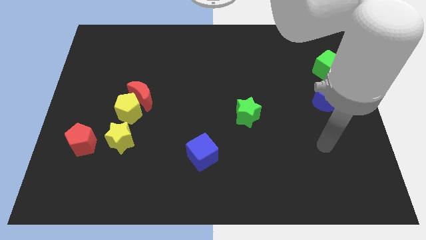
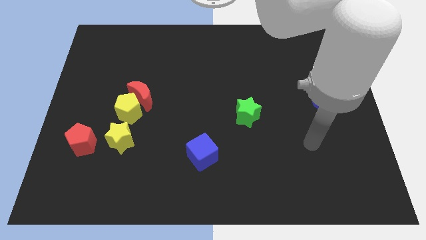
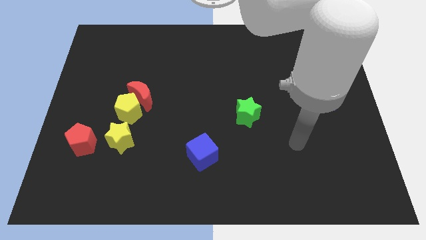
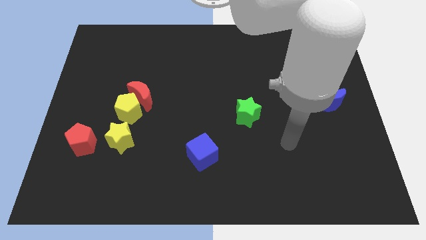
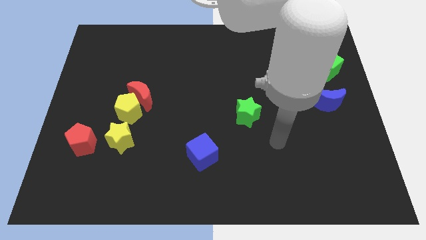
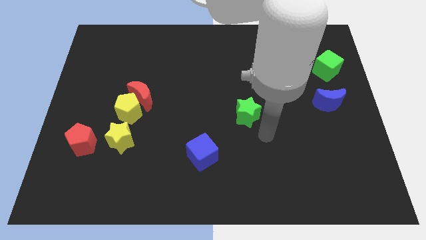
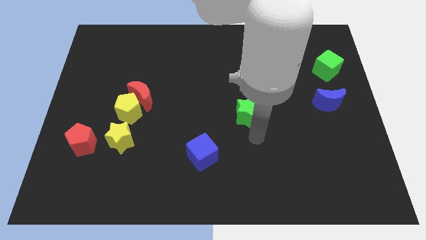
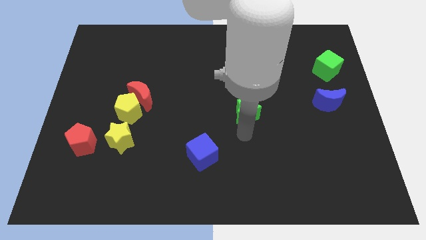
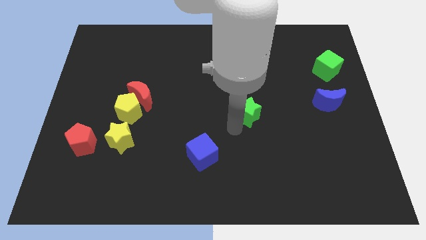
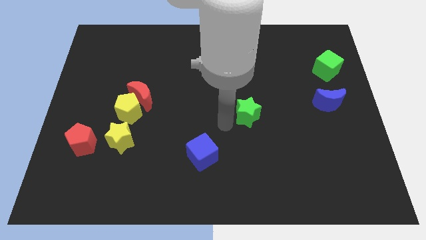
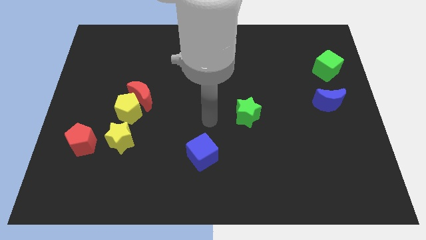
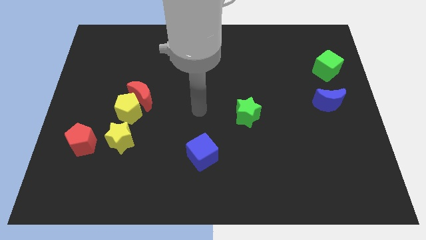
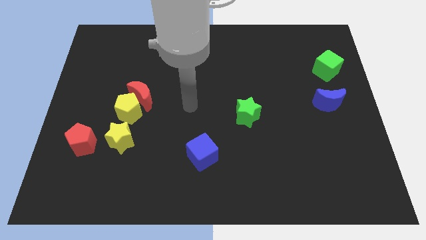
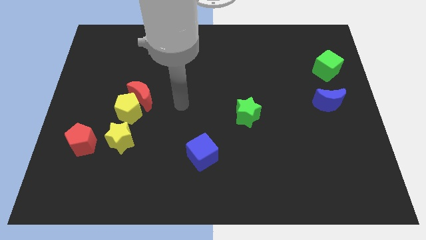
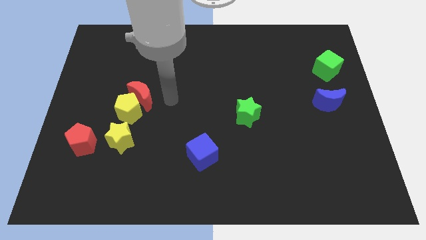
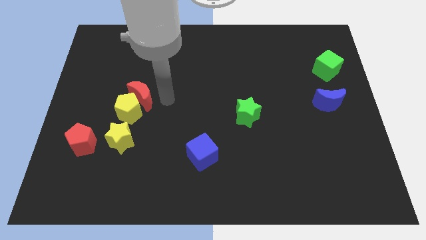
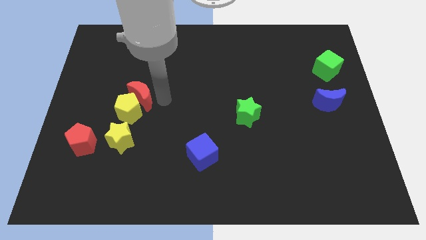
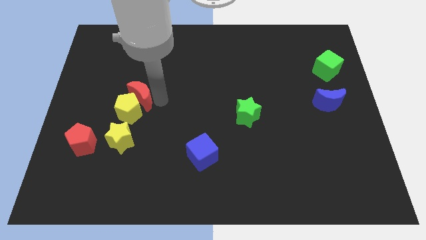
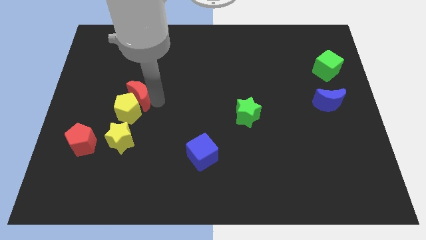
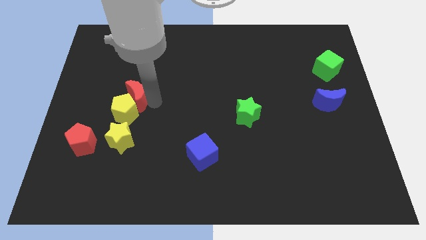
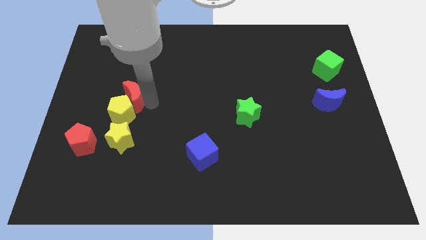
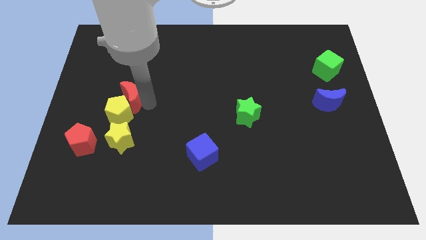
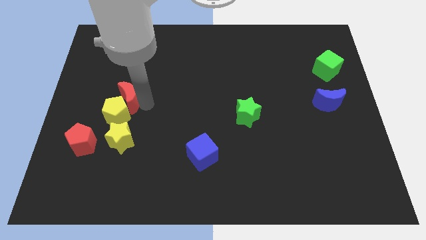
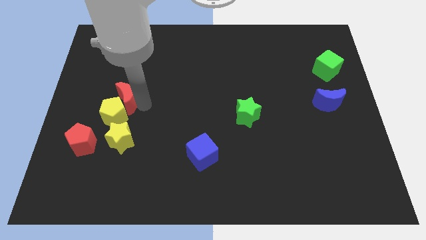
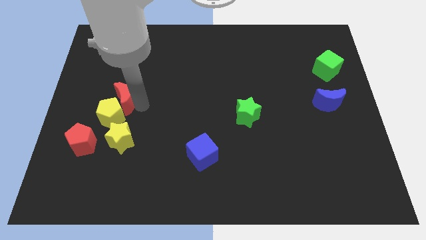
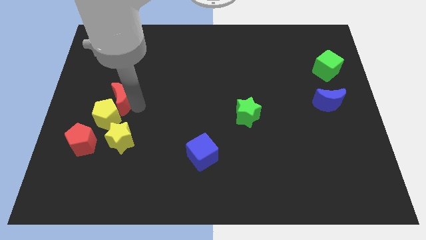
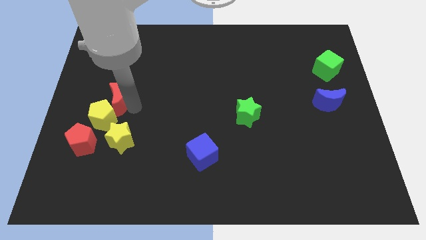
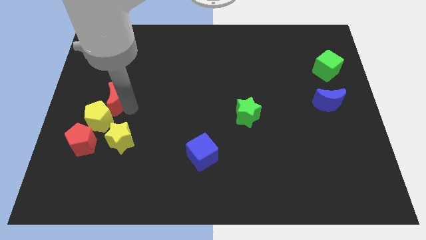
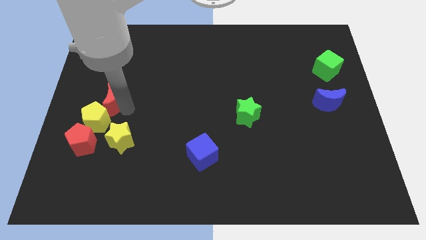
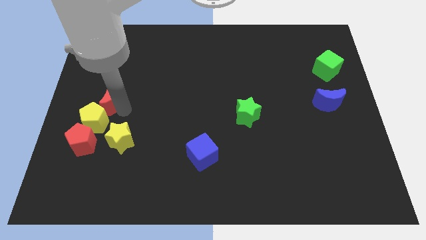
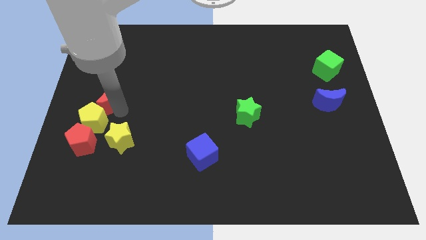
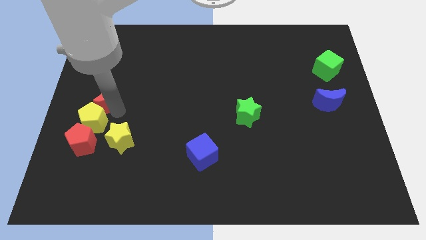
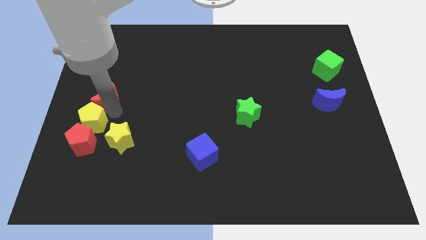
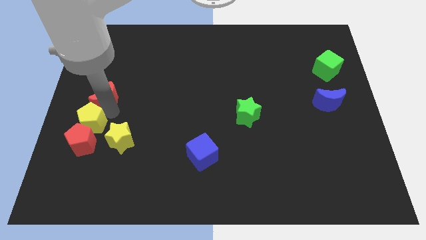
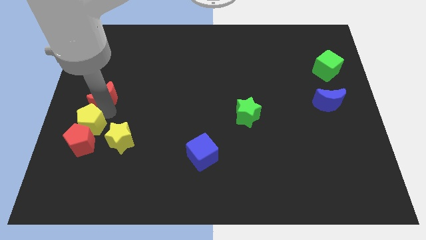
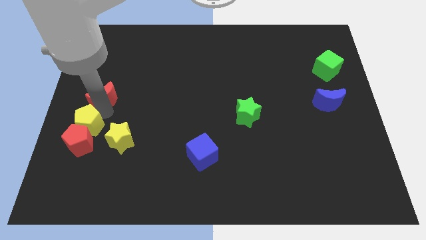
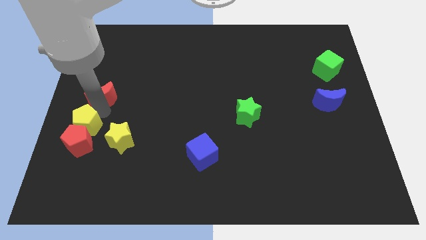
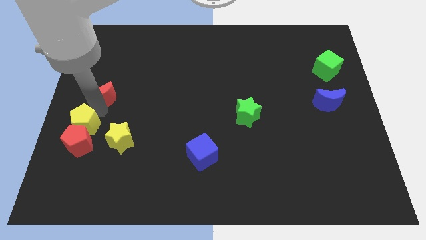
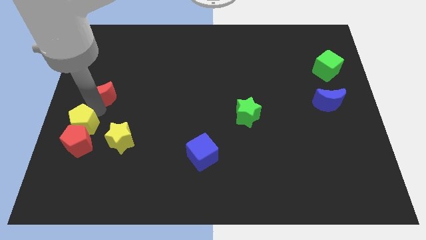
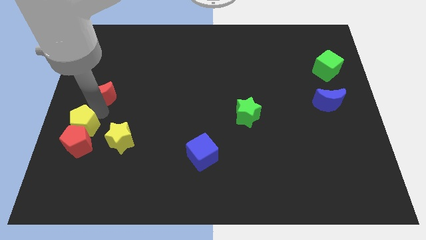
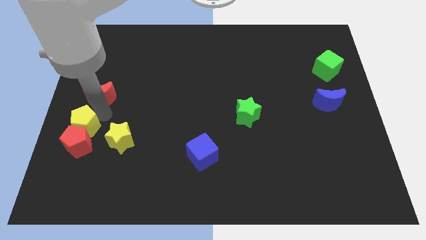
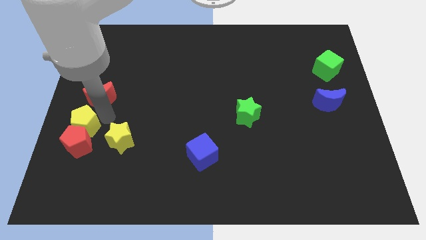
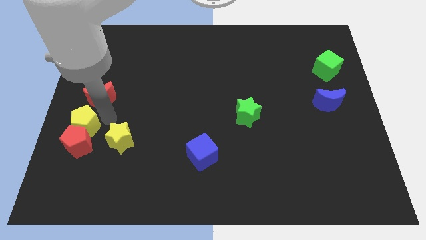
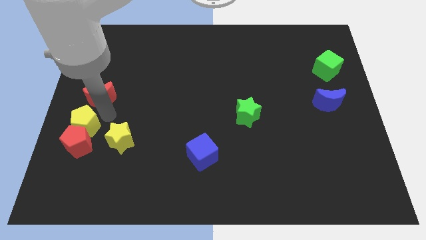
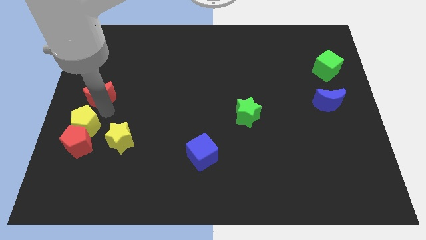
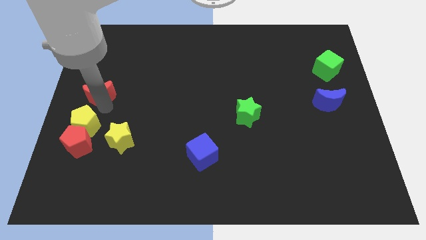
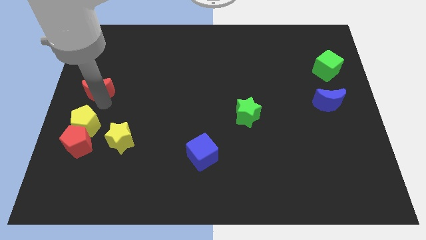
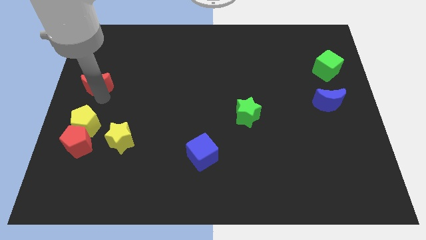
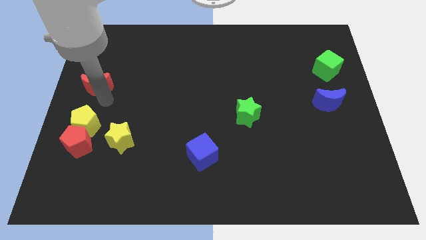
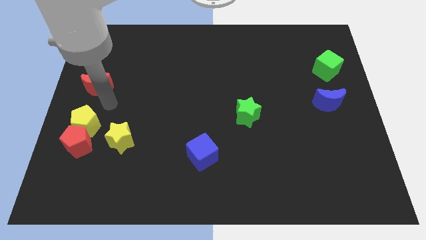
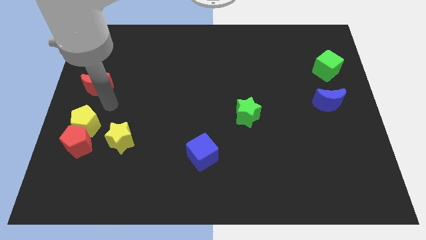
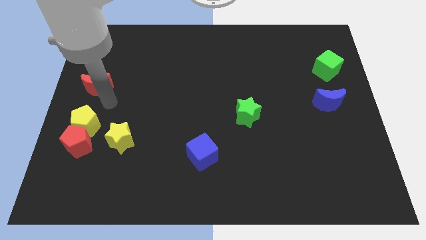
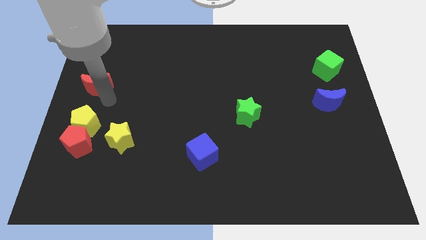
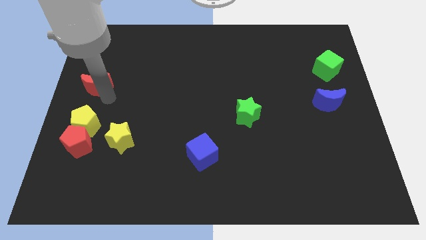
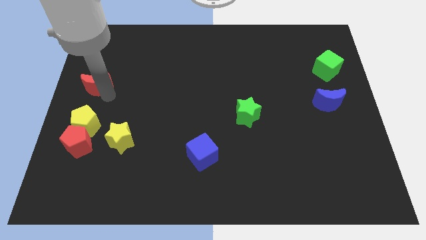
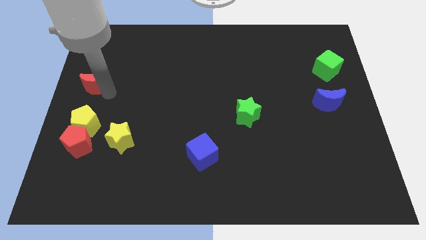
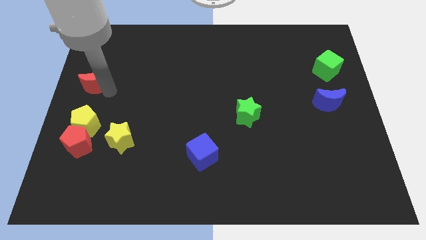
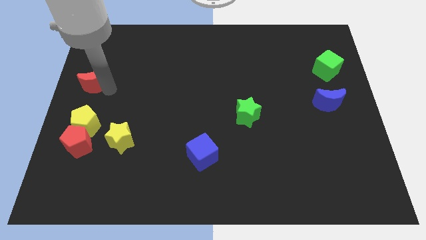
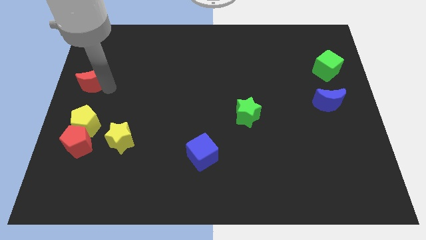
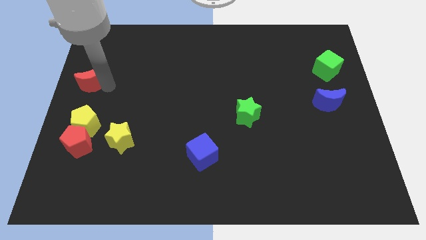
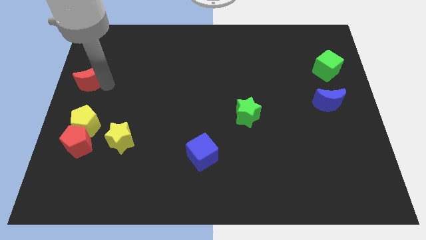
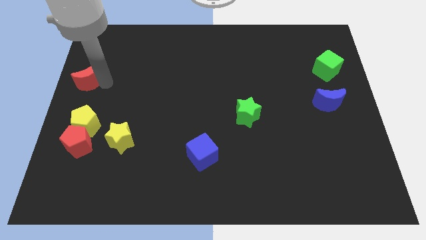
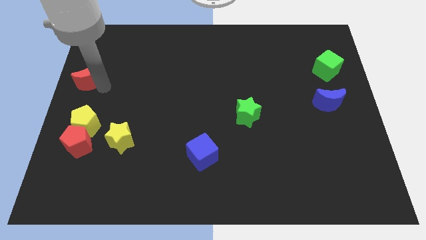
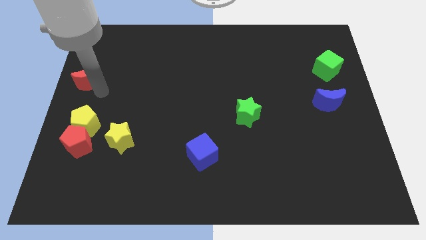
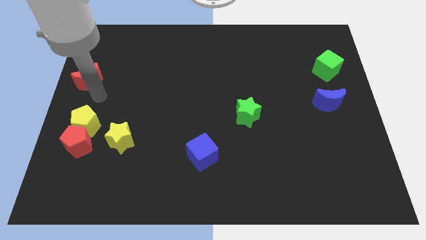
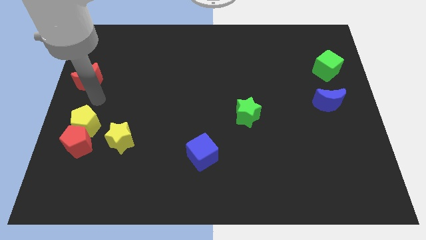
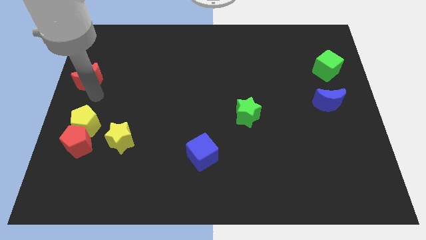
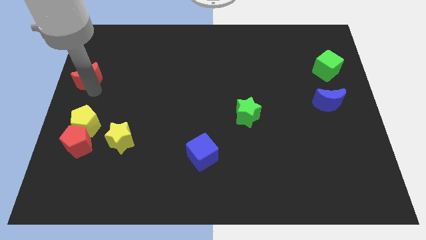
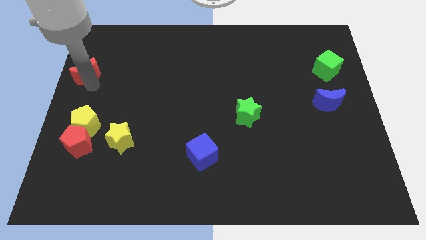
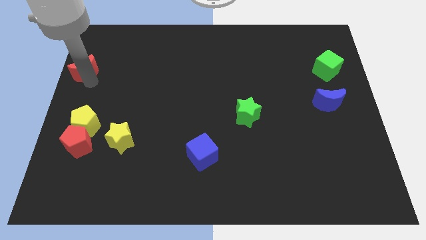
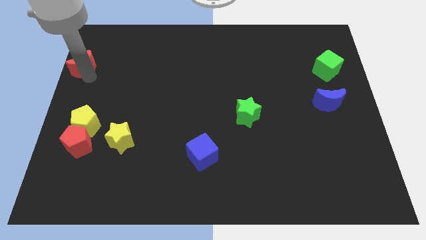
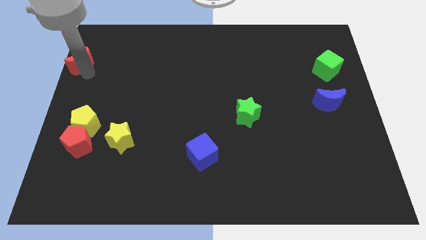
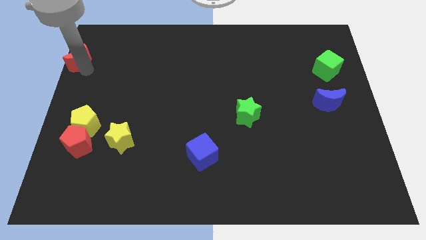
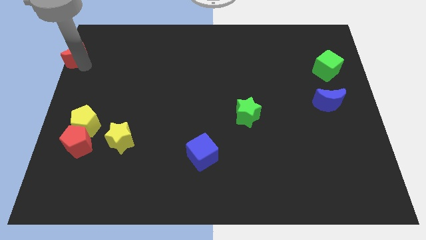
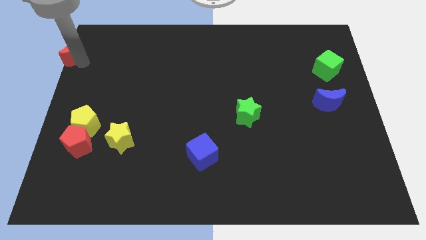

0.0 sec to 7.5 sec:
slide the red moon to the top left corner

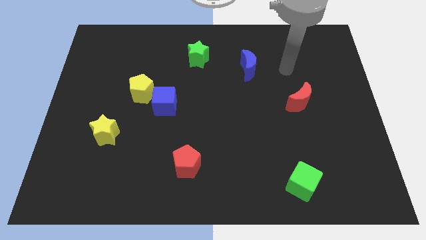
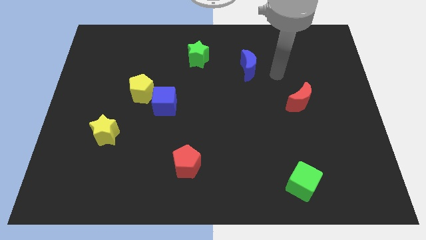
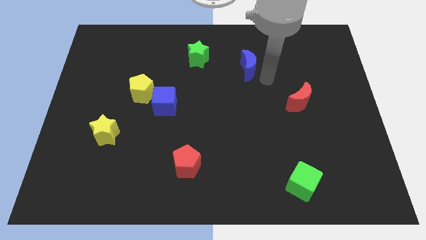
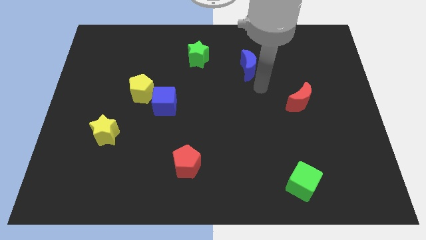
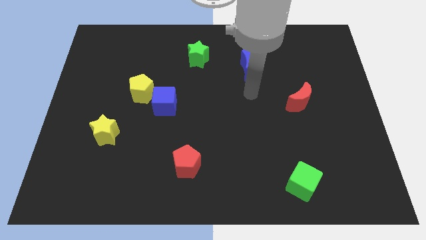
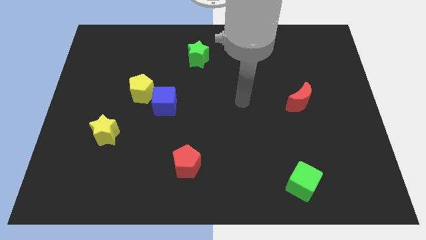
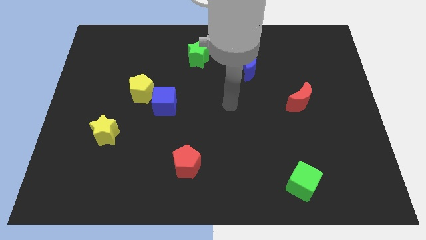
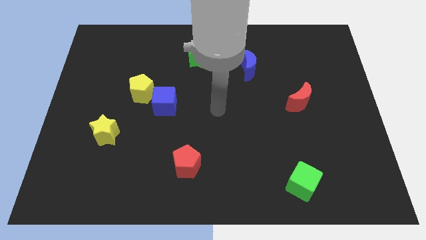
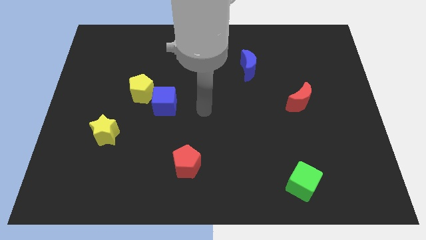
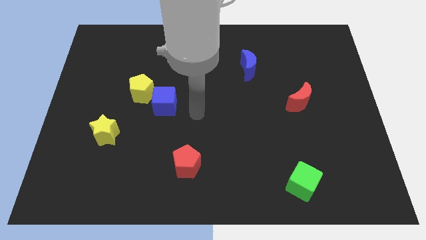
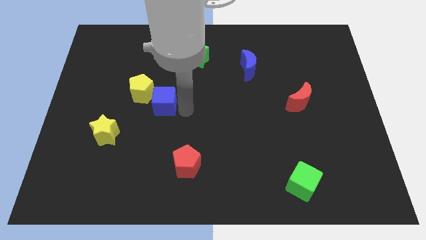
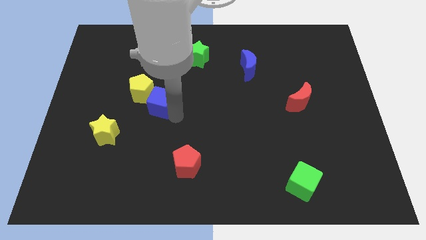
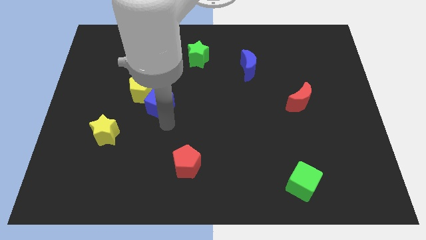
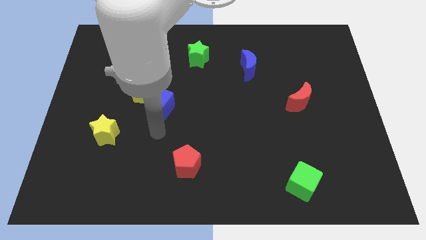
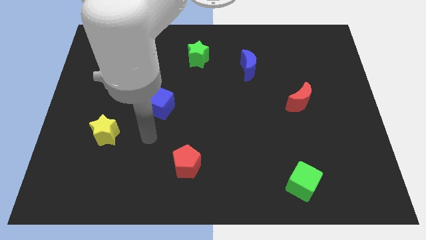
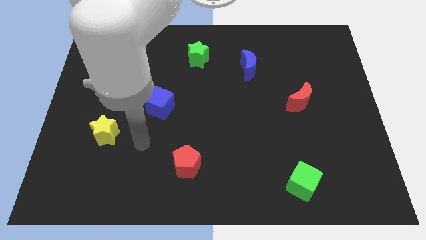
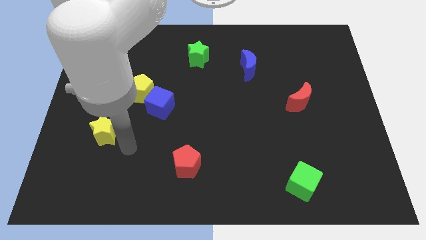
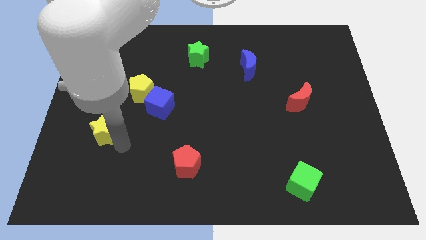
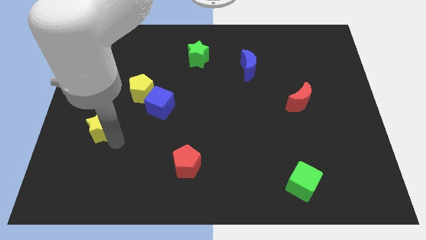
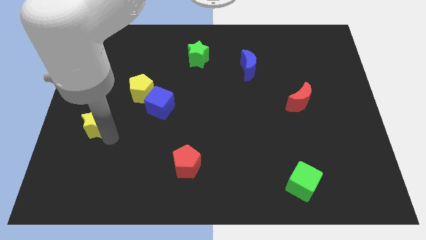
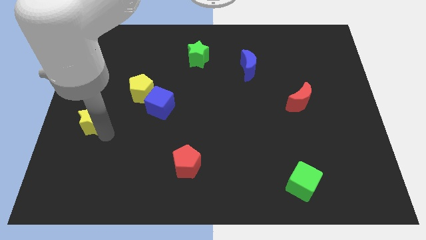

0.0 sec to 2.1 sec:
move the yellow star to the center left
